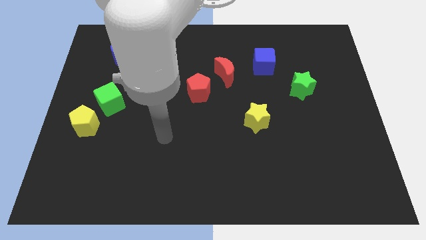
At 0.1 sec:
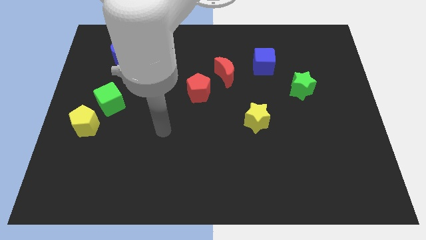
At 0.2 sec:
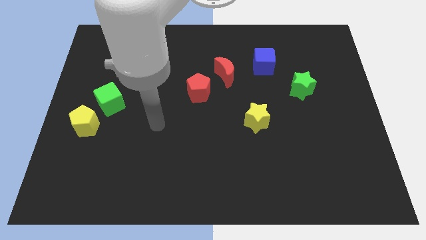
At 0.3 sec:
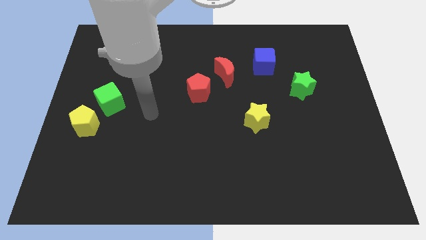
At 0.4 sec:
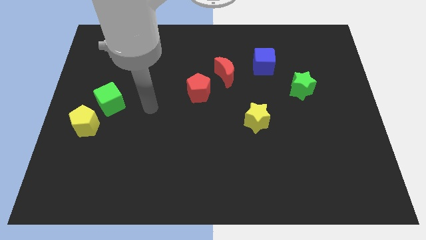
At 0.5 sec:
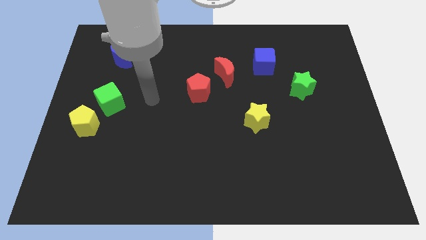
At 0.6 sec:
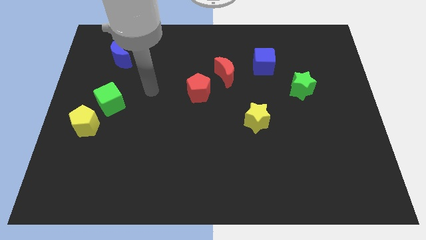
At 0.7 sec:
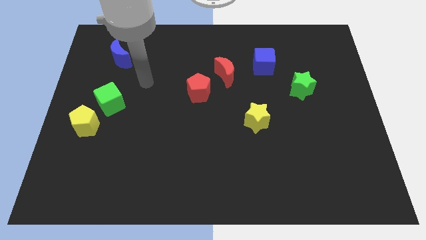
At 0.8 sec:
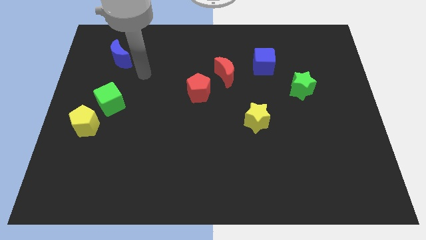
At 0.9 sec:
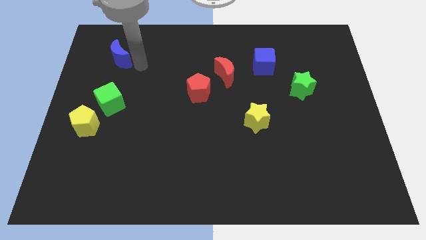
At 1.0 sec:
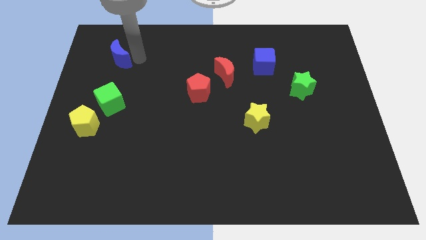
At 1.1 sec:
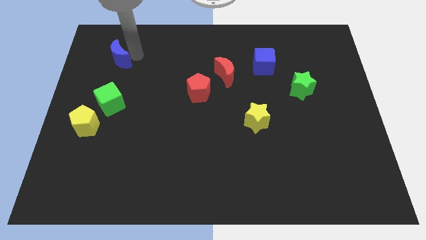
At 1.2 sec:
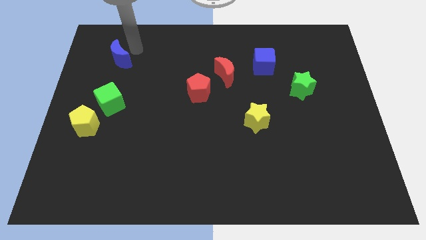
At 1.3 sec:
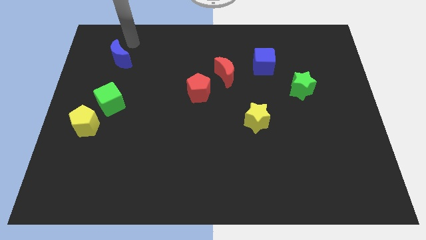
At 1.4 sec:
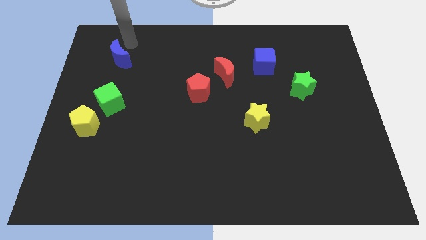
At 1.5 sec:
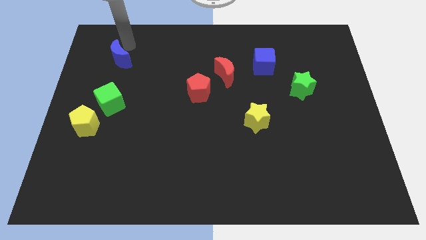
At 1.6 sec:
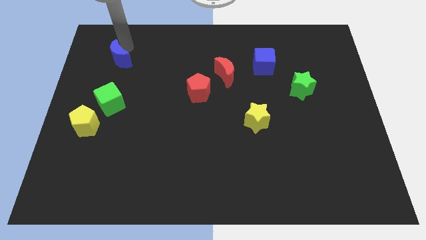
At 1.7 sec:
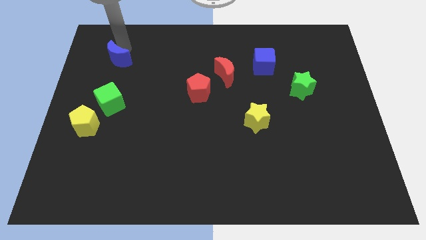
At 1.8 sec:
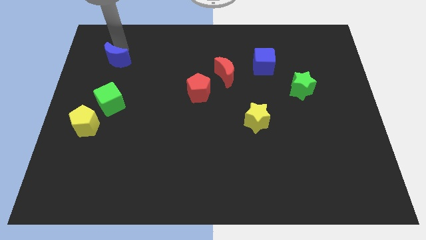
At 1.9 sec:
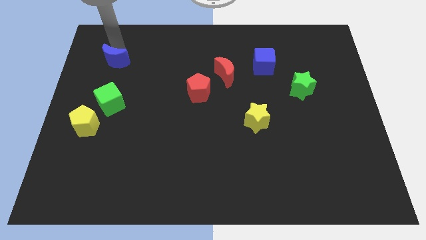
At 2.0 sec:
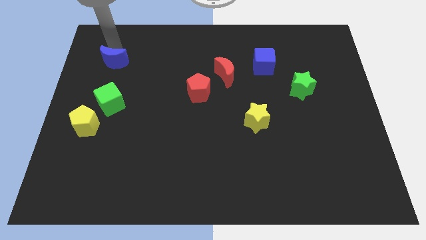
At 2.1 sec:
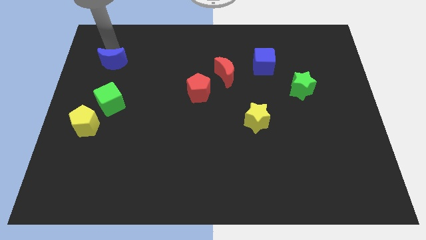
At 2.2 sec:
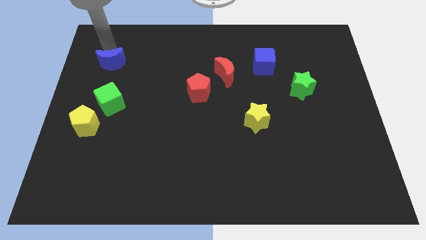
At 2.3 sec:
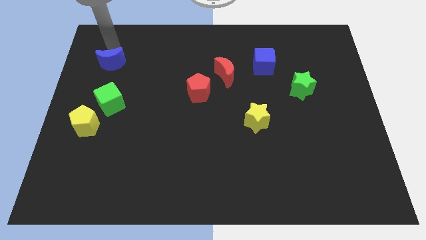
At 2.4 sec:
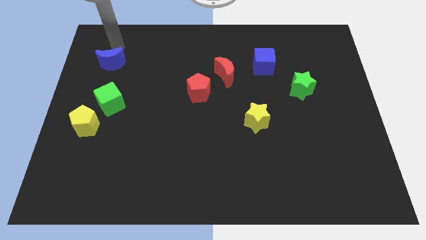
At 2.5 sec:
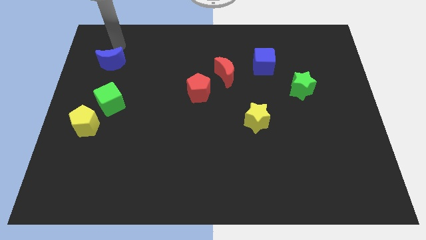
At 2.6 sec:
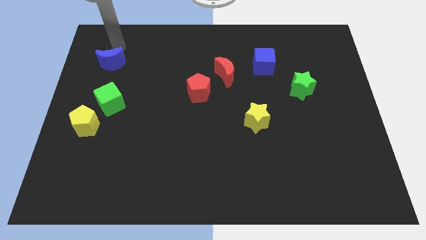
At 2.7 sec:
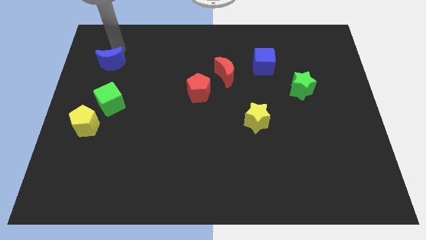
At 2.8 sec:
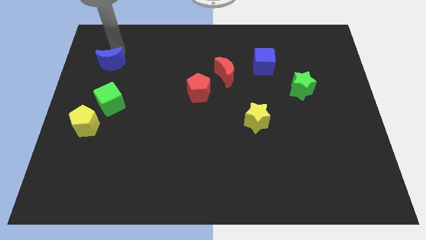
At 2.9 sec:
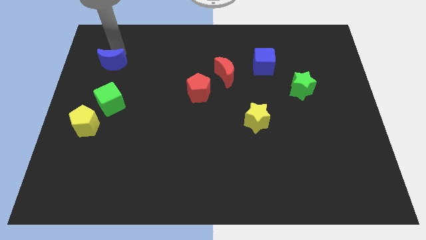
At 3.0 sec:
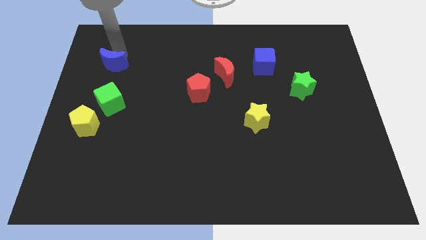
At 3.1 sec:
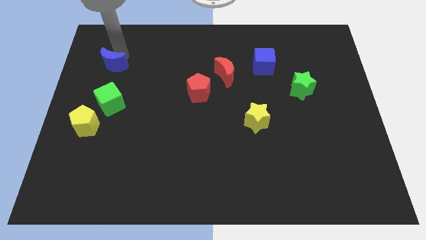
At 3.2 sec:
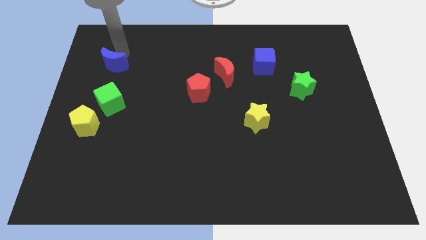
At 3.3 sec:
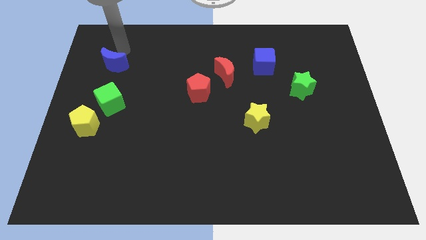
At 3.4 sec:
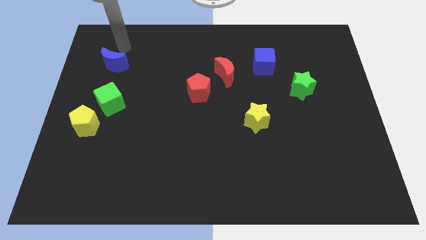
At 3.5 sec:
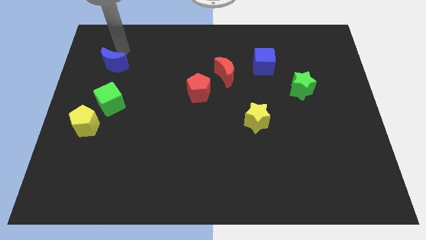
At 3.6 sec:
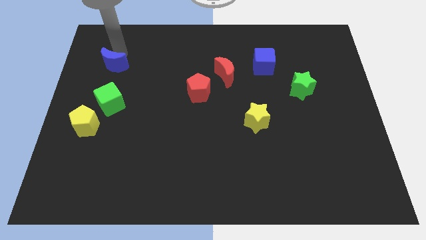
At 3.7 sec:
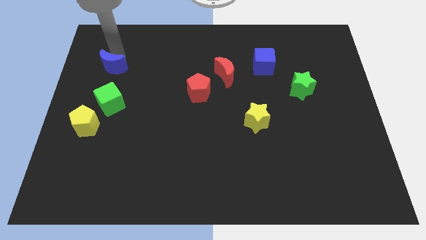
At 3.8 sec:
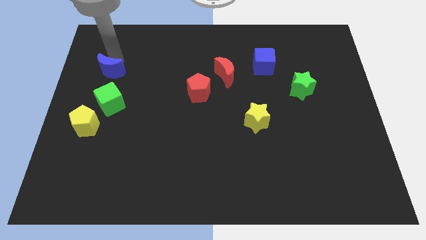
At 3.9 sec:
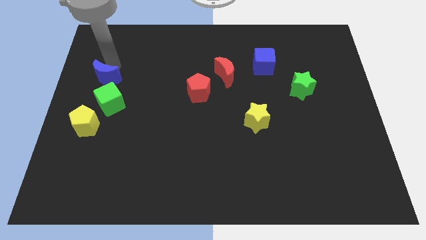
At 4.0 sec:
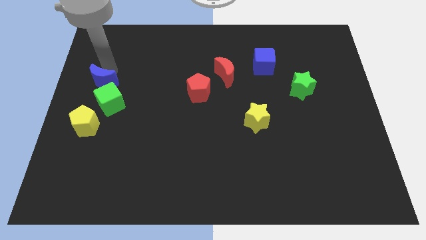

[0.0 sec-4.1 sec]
push the blue moon somewhat downwards

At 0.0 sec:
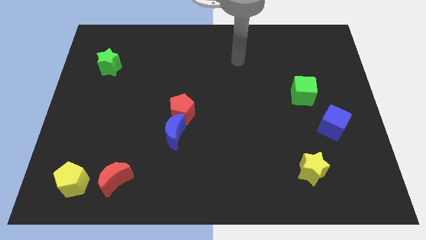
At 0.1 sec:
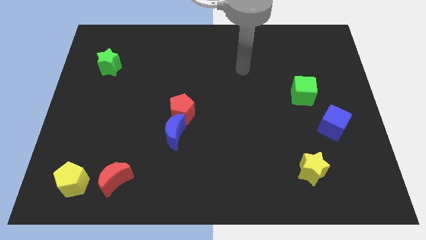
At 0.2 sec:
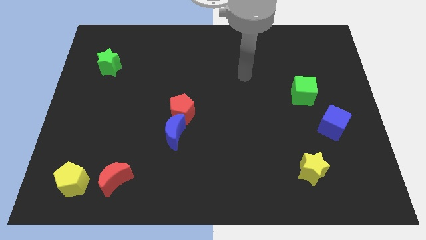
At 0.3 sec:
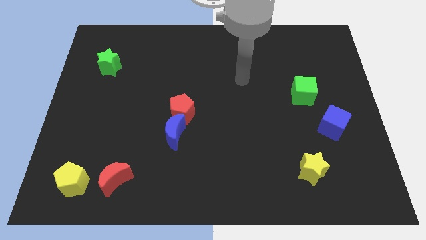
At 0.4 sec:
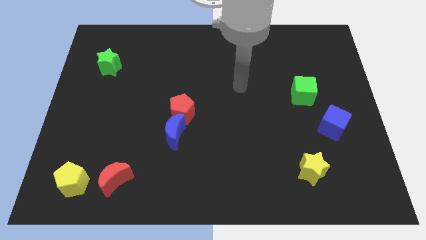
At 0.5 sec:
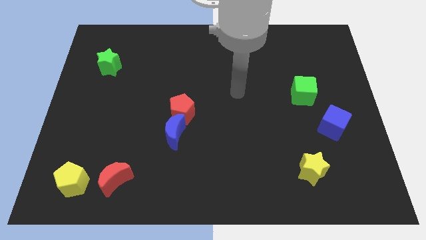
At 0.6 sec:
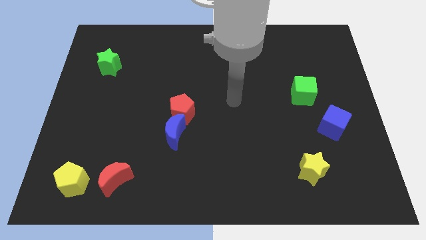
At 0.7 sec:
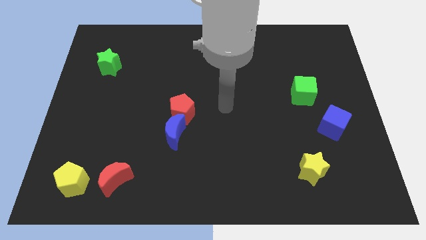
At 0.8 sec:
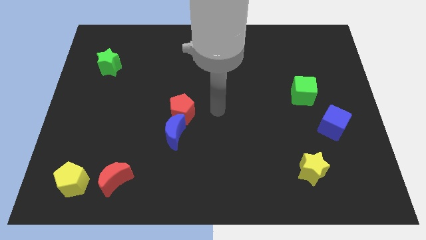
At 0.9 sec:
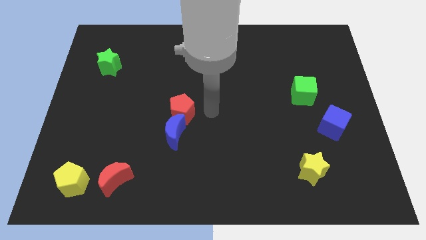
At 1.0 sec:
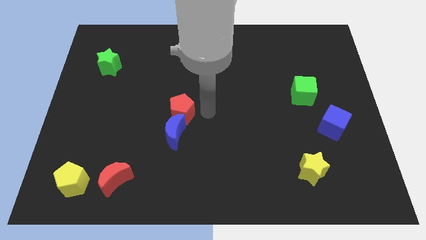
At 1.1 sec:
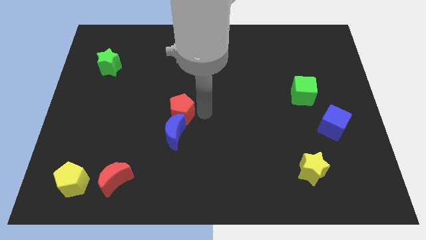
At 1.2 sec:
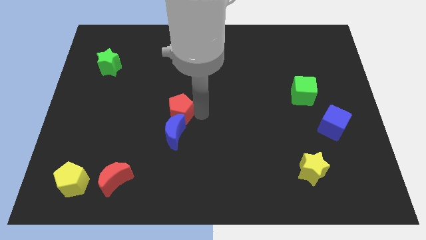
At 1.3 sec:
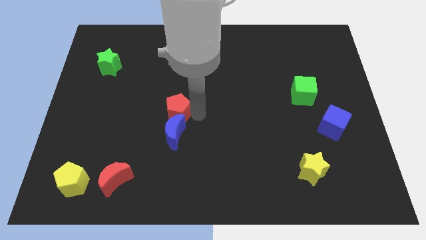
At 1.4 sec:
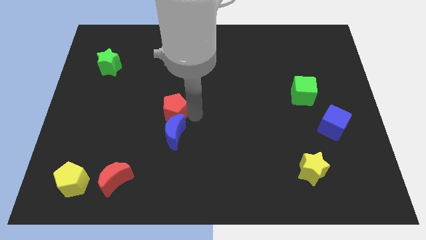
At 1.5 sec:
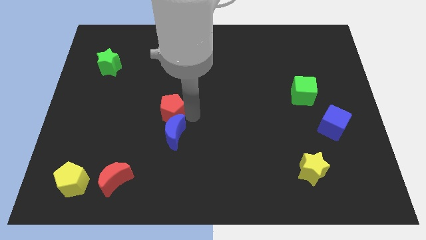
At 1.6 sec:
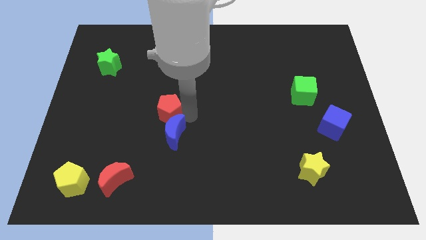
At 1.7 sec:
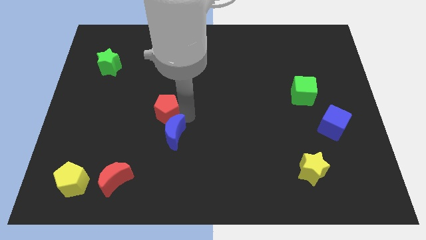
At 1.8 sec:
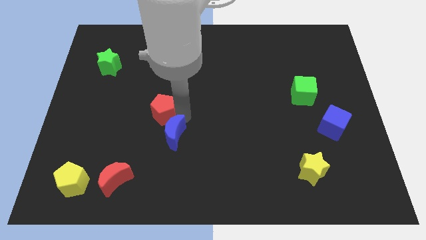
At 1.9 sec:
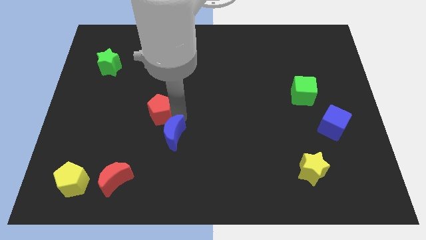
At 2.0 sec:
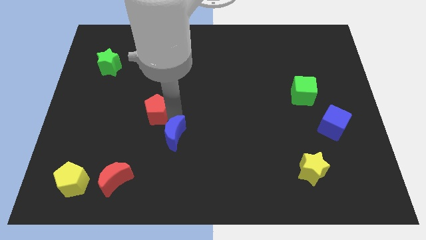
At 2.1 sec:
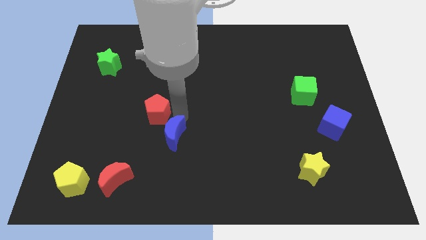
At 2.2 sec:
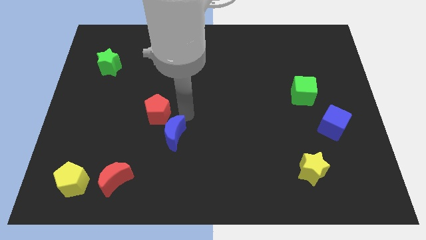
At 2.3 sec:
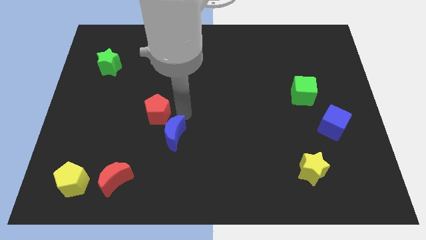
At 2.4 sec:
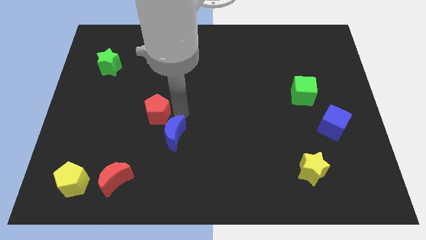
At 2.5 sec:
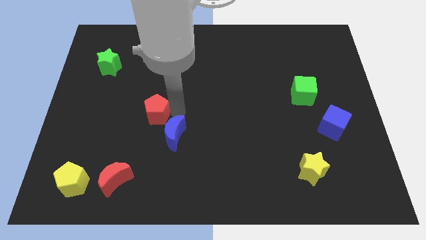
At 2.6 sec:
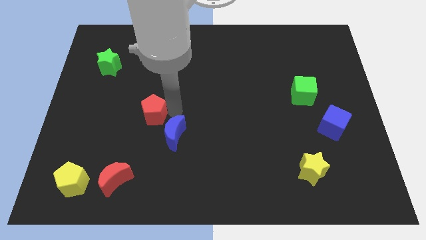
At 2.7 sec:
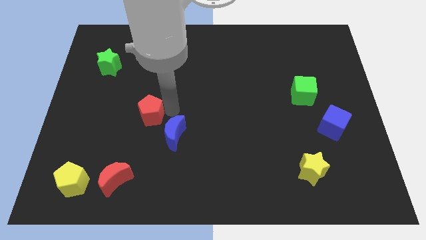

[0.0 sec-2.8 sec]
slightly slide the red pentagon left

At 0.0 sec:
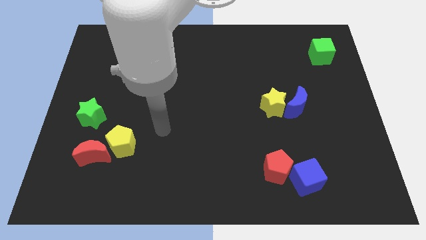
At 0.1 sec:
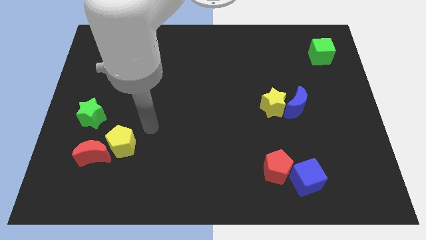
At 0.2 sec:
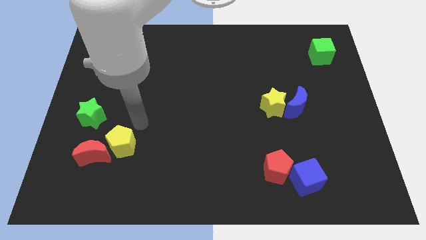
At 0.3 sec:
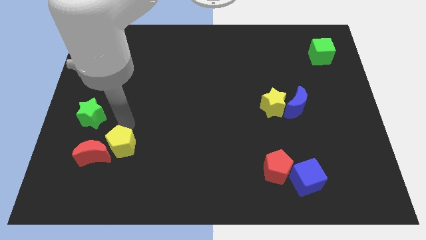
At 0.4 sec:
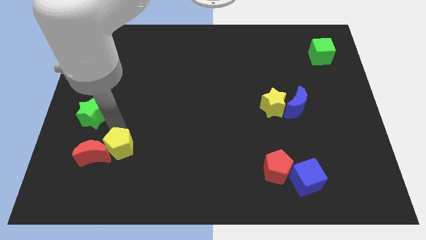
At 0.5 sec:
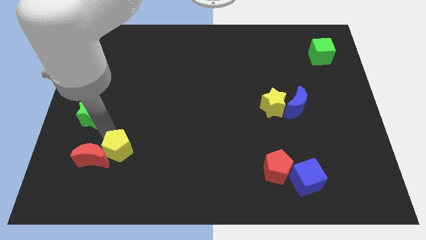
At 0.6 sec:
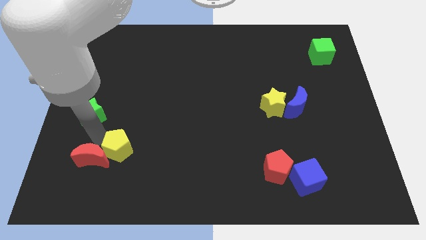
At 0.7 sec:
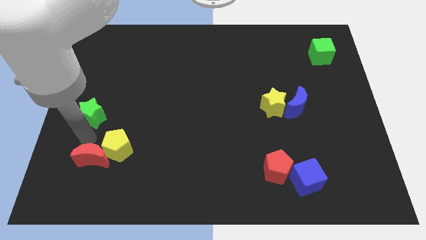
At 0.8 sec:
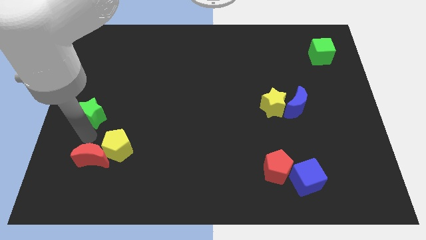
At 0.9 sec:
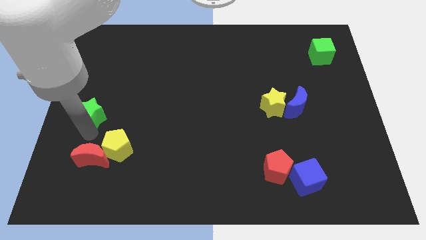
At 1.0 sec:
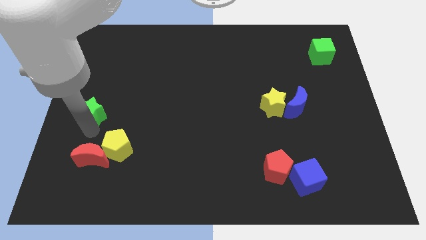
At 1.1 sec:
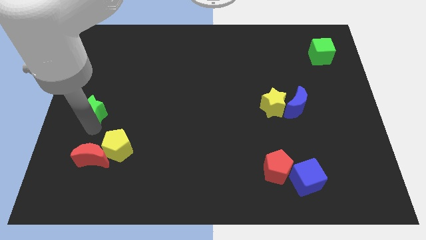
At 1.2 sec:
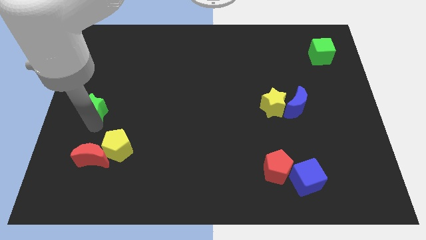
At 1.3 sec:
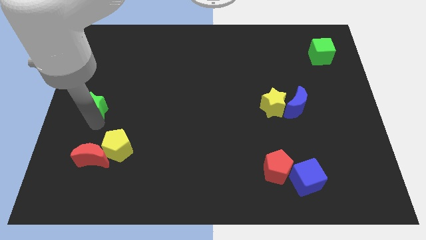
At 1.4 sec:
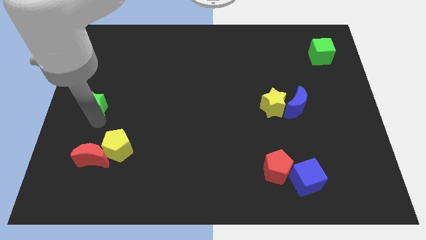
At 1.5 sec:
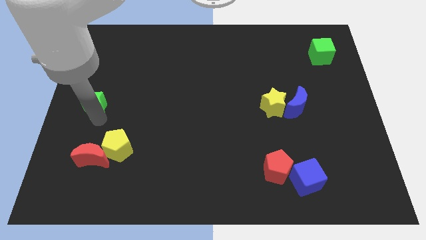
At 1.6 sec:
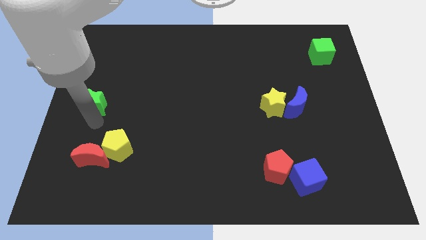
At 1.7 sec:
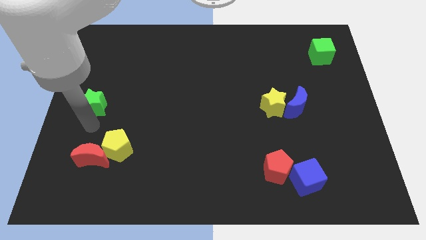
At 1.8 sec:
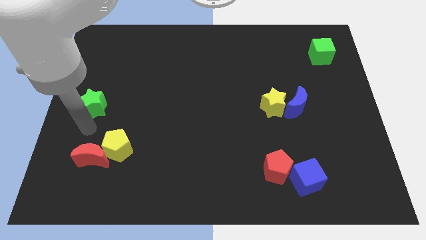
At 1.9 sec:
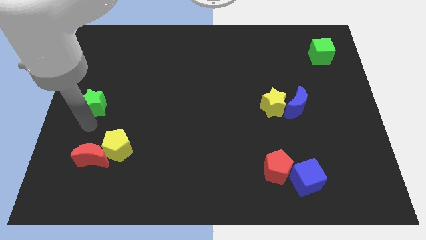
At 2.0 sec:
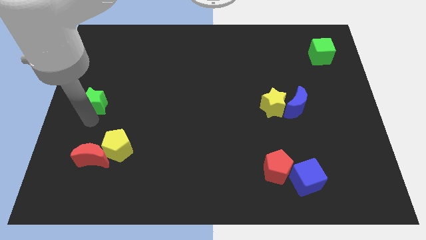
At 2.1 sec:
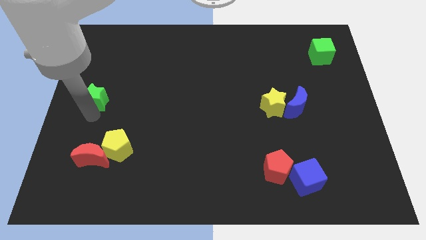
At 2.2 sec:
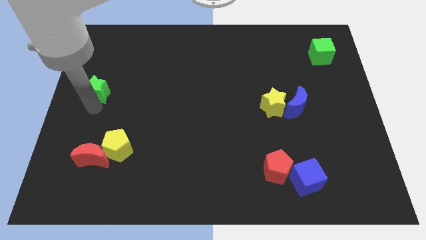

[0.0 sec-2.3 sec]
slightly slide the green star upwards
